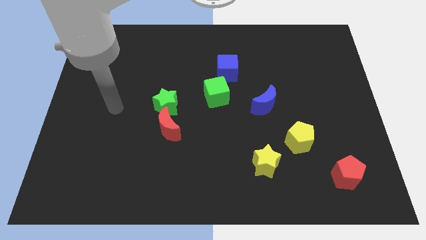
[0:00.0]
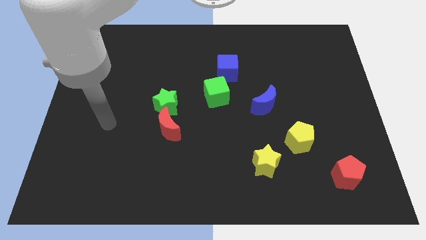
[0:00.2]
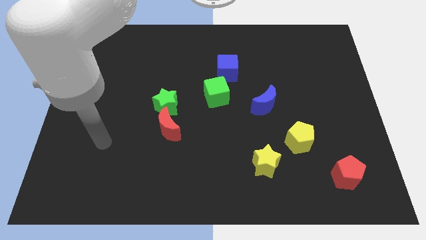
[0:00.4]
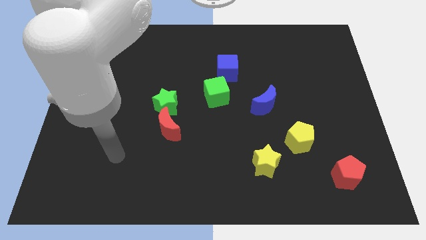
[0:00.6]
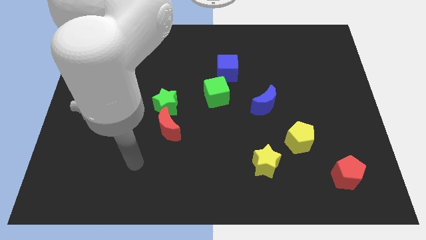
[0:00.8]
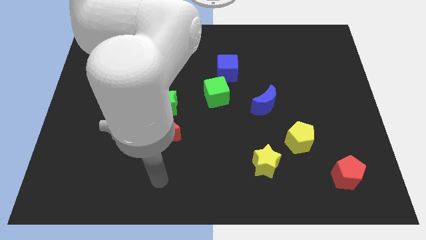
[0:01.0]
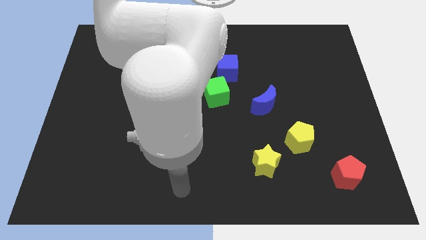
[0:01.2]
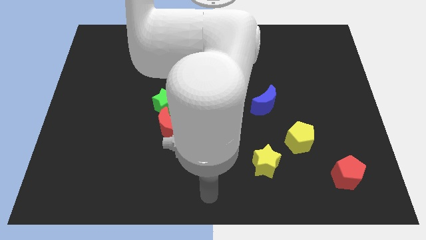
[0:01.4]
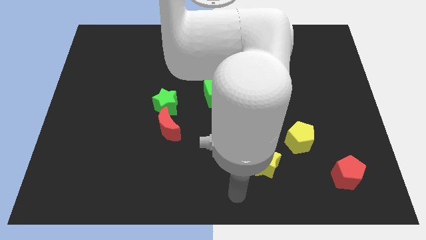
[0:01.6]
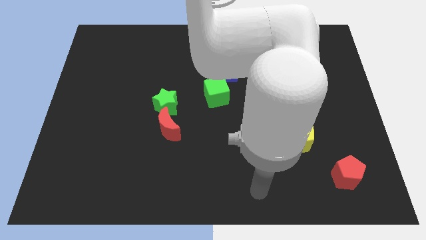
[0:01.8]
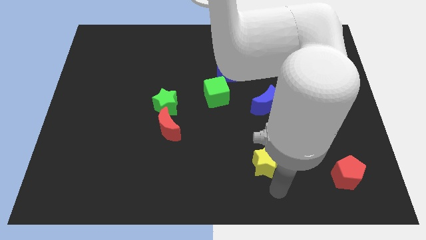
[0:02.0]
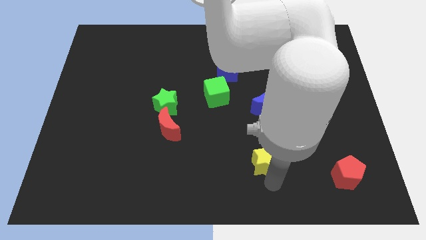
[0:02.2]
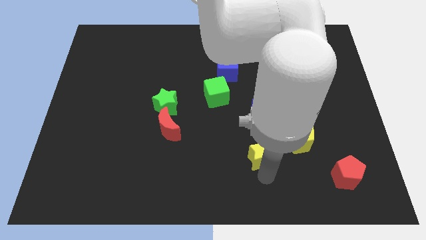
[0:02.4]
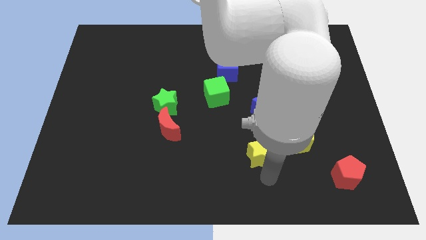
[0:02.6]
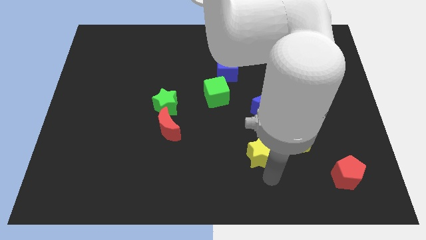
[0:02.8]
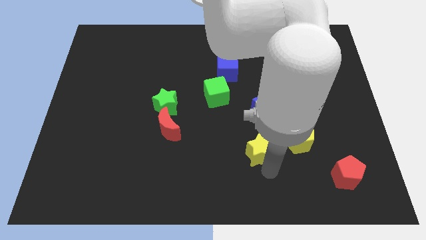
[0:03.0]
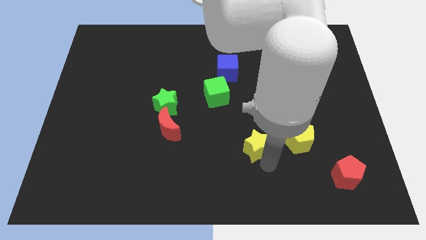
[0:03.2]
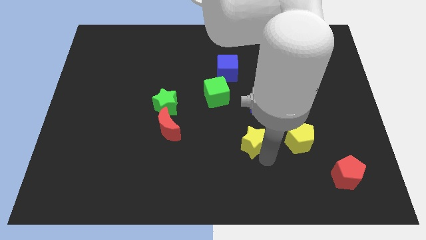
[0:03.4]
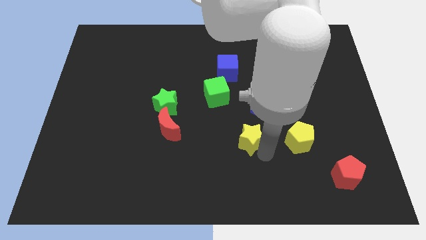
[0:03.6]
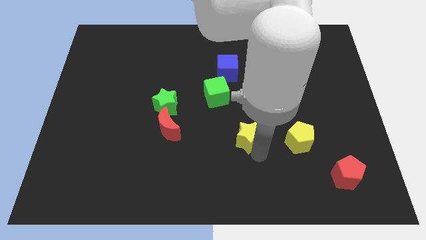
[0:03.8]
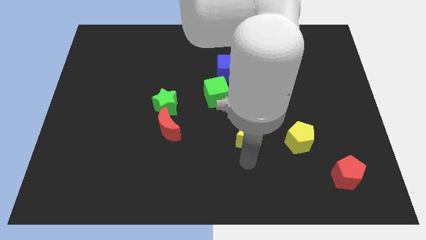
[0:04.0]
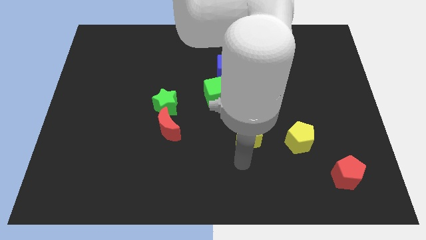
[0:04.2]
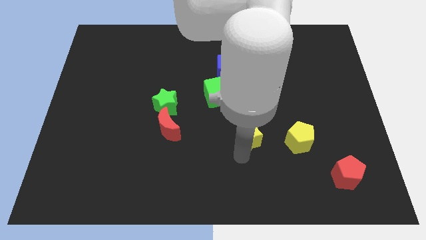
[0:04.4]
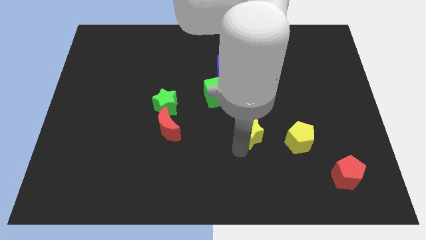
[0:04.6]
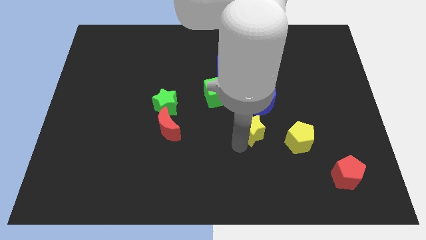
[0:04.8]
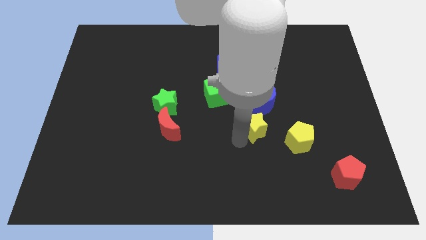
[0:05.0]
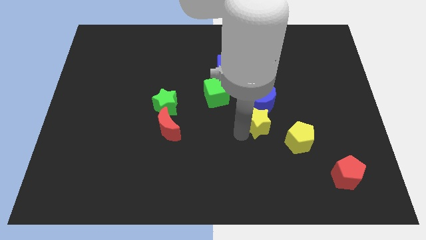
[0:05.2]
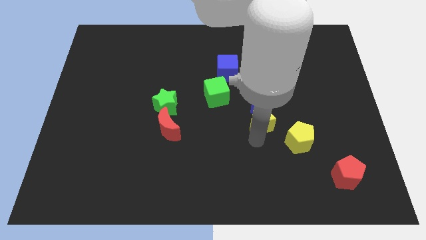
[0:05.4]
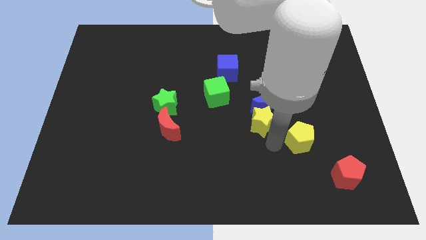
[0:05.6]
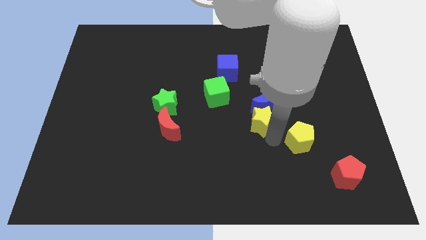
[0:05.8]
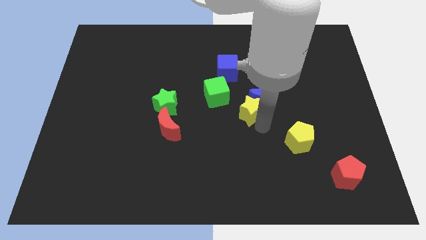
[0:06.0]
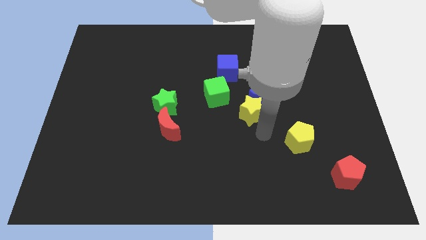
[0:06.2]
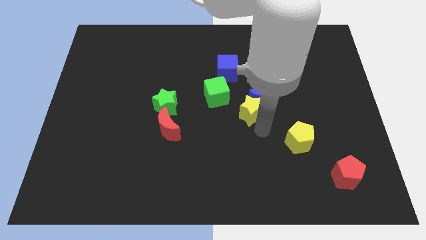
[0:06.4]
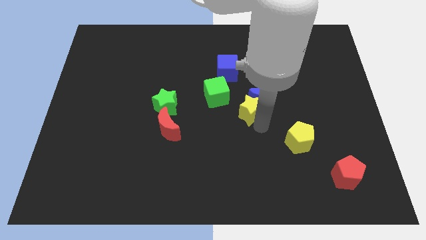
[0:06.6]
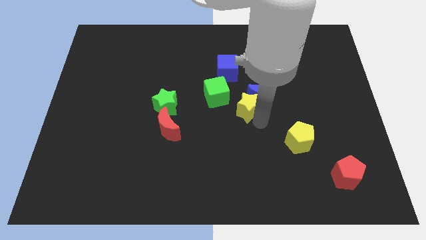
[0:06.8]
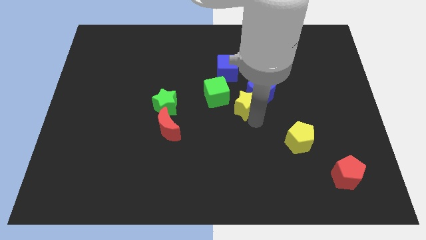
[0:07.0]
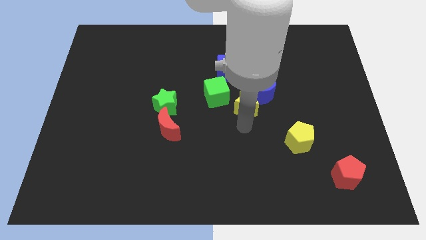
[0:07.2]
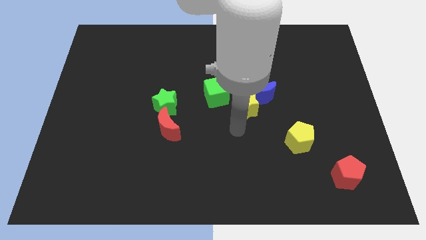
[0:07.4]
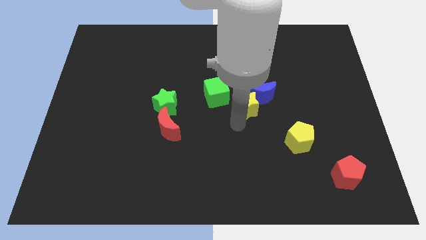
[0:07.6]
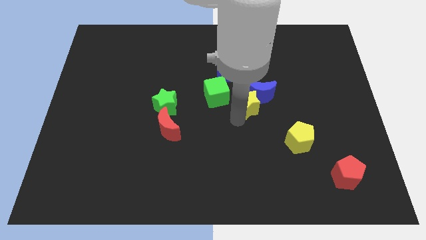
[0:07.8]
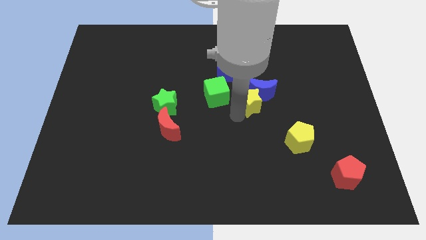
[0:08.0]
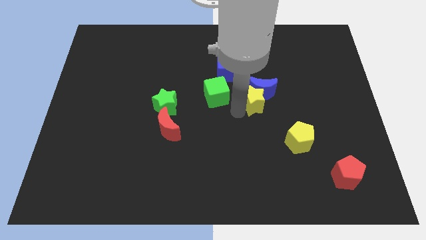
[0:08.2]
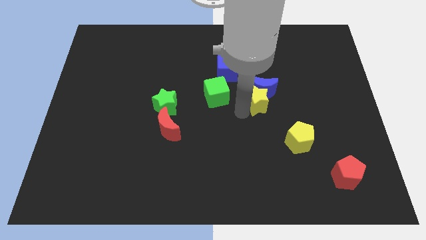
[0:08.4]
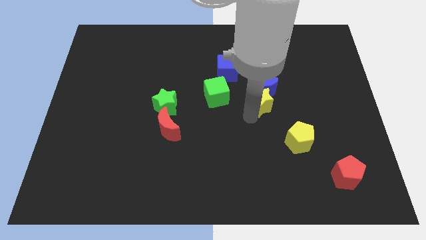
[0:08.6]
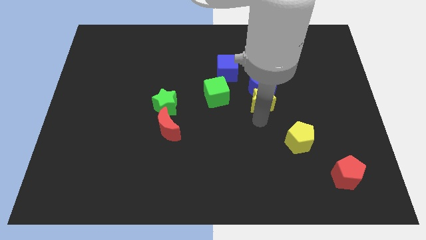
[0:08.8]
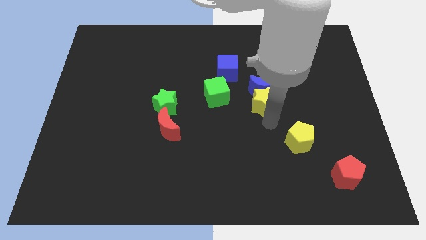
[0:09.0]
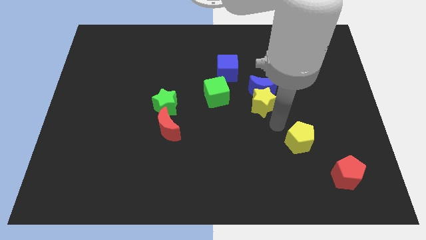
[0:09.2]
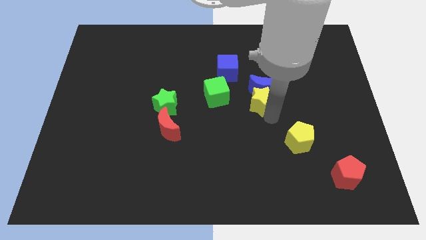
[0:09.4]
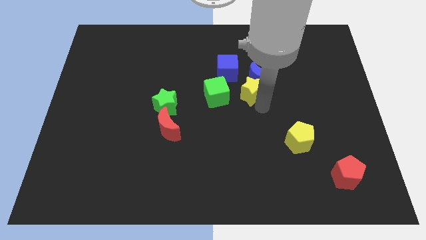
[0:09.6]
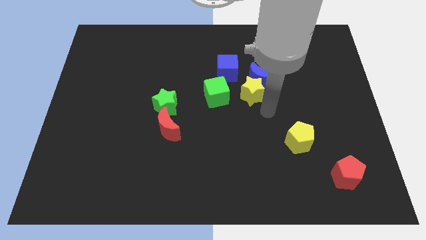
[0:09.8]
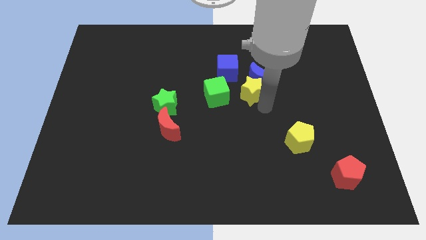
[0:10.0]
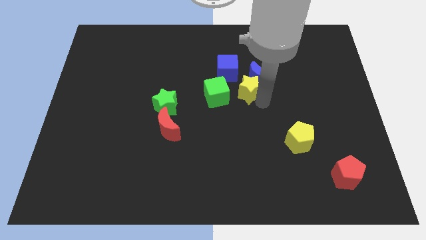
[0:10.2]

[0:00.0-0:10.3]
push the yellow star diagonally up and to the right of the green cube

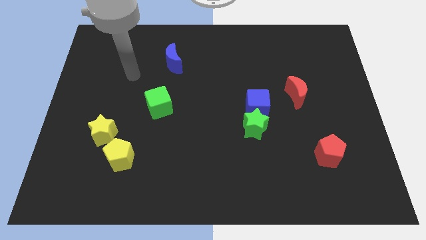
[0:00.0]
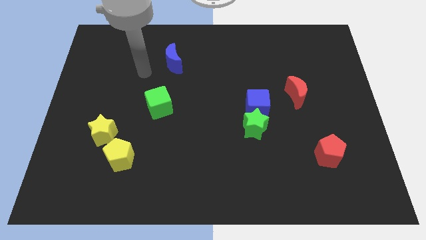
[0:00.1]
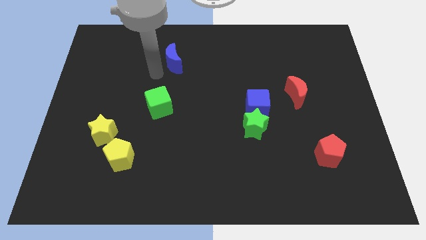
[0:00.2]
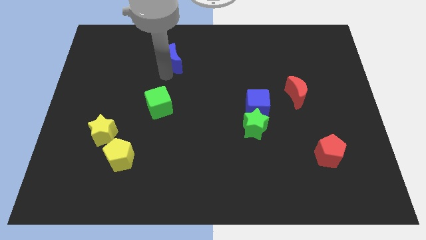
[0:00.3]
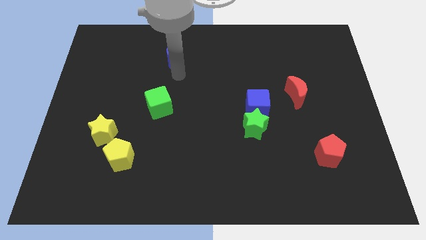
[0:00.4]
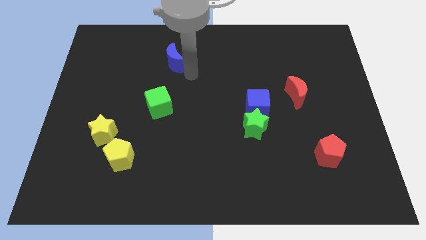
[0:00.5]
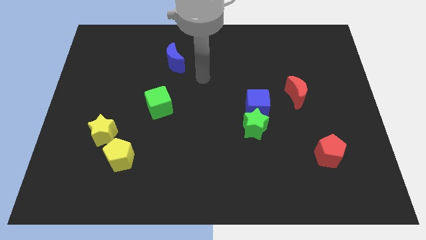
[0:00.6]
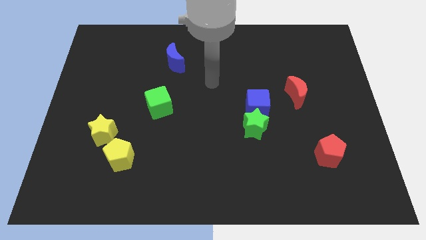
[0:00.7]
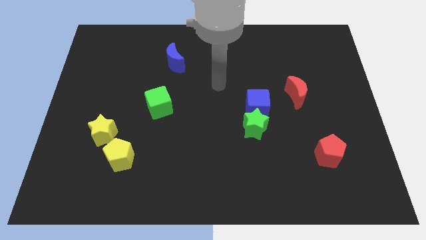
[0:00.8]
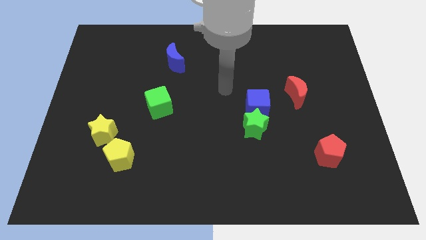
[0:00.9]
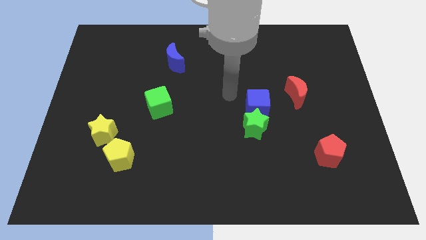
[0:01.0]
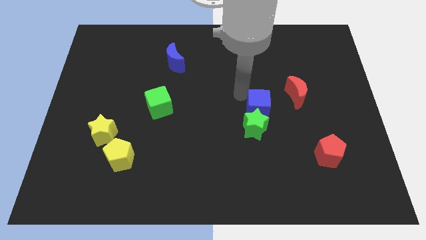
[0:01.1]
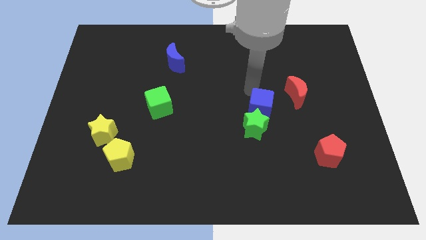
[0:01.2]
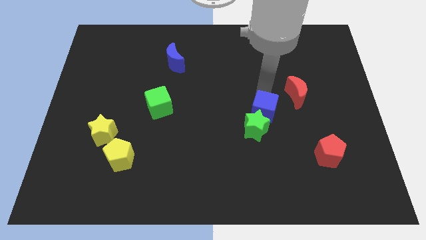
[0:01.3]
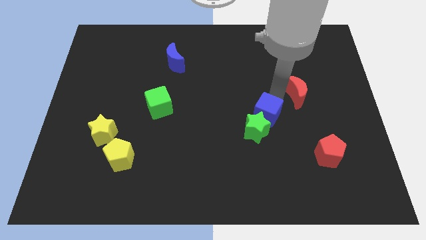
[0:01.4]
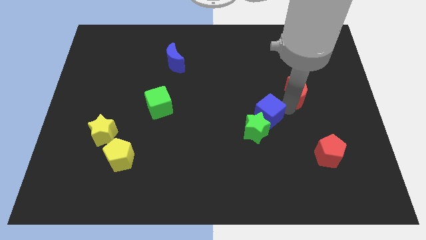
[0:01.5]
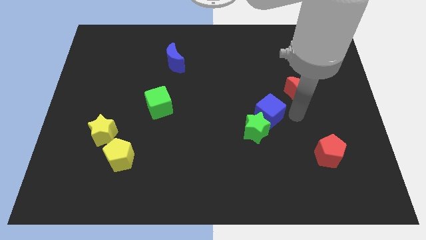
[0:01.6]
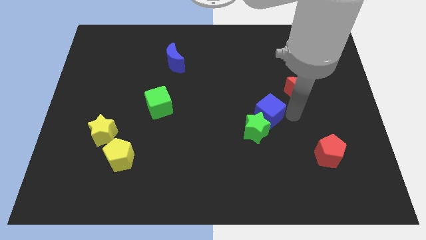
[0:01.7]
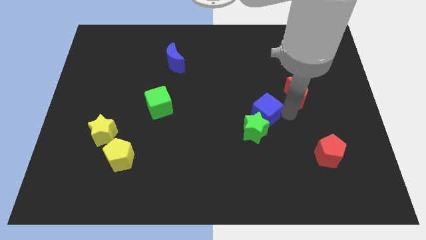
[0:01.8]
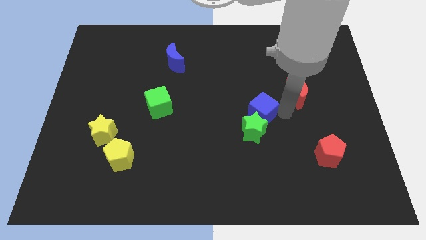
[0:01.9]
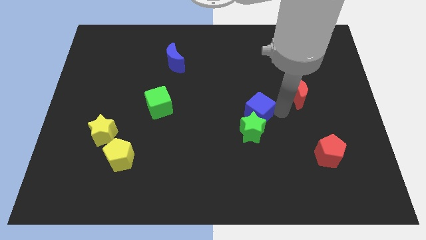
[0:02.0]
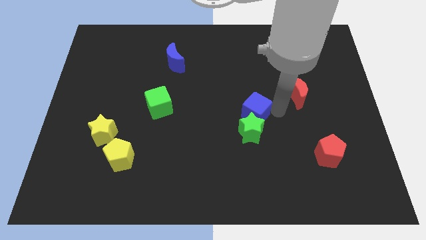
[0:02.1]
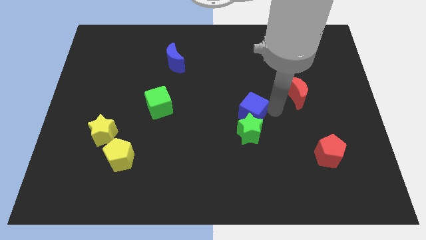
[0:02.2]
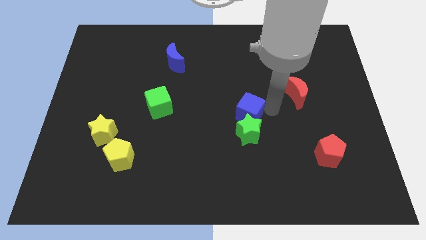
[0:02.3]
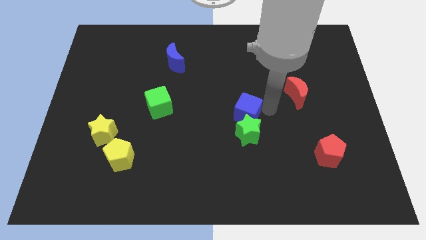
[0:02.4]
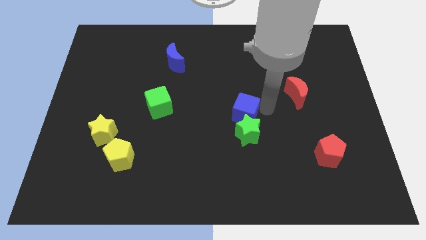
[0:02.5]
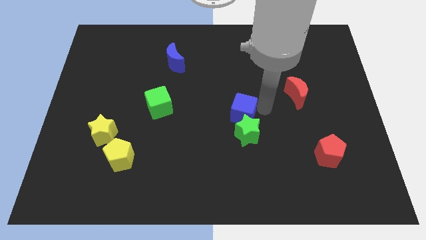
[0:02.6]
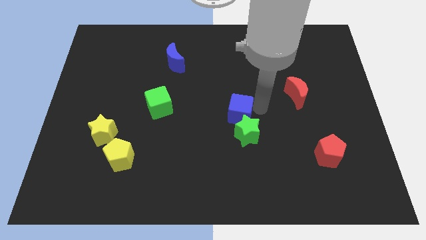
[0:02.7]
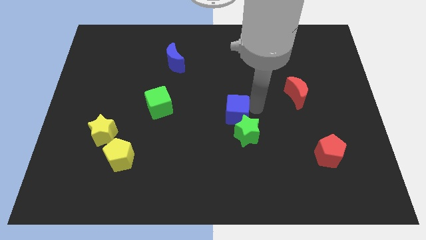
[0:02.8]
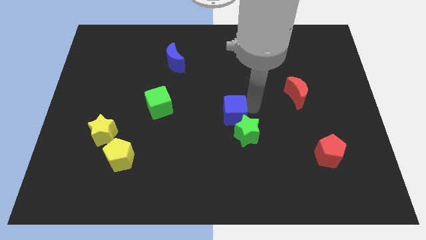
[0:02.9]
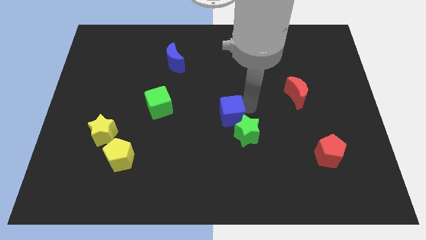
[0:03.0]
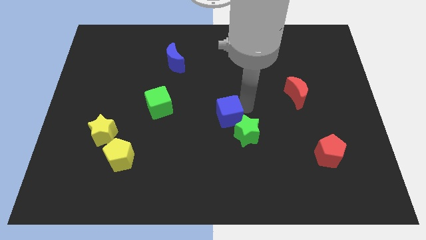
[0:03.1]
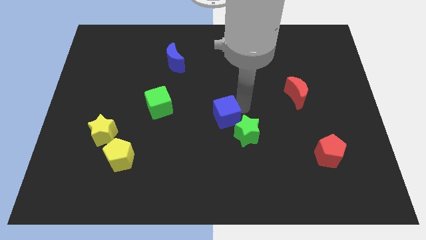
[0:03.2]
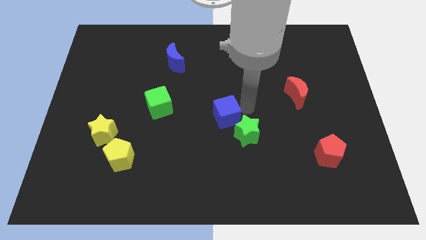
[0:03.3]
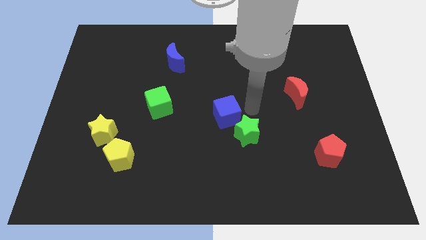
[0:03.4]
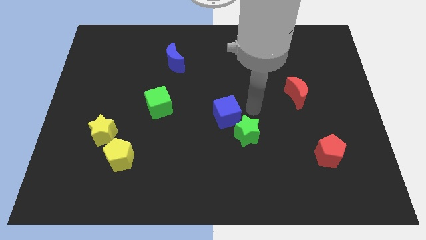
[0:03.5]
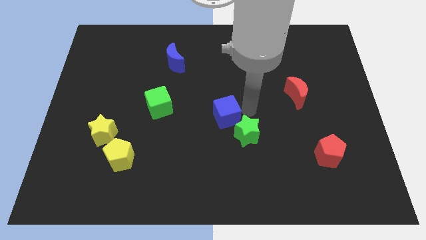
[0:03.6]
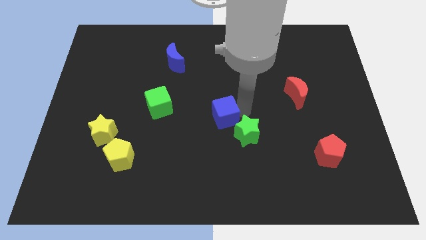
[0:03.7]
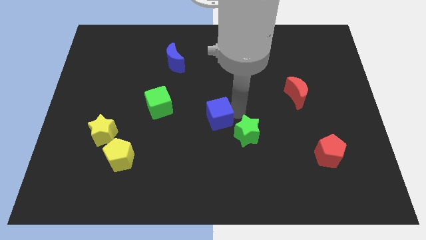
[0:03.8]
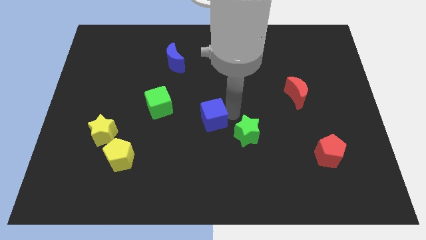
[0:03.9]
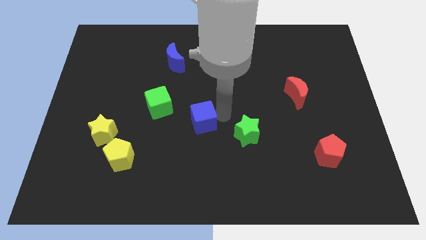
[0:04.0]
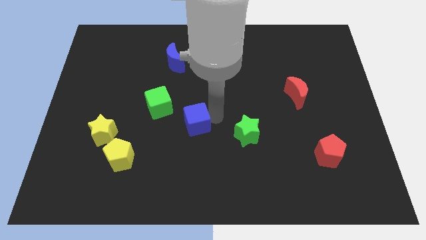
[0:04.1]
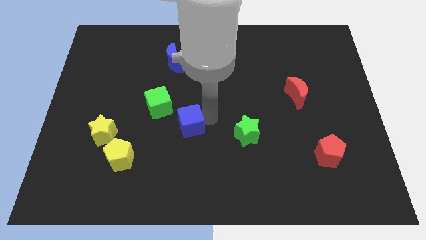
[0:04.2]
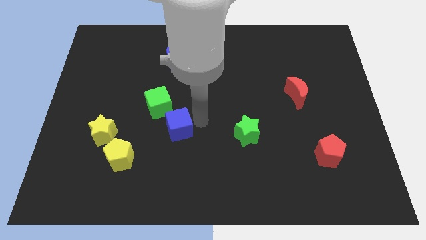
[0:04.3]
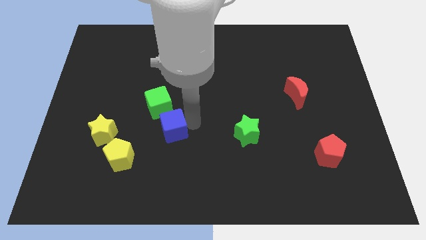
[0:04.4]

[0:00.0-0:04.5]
push the blue cube to the right side of the yellow star
